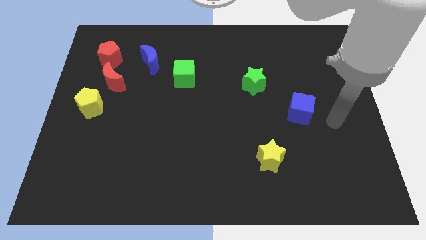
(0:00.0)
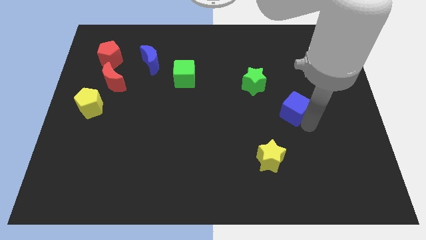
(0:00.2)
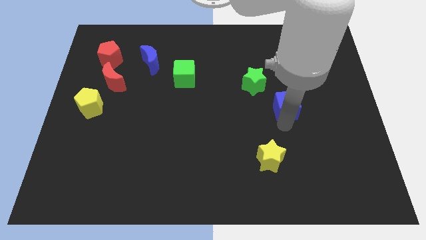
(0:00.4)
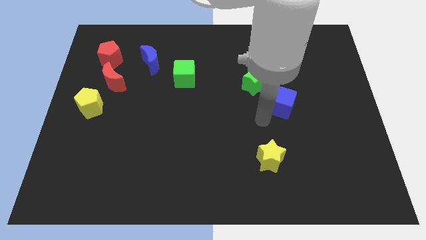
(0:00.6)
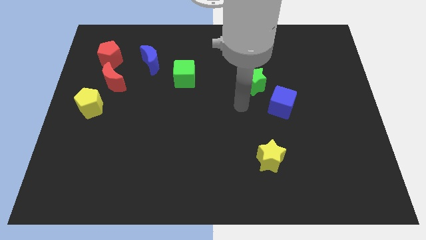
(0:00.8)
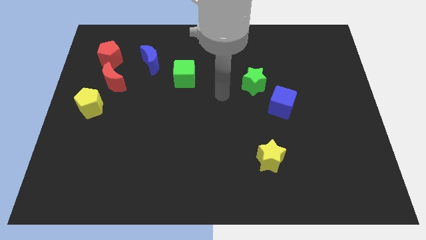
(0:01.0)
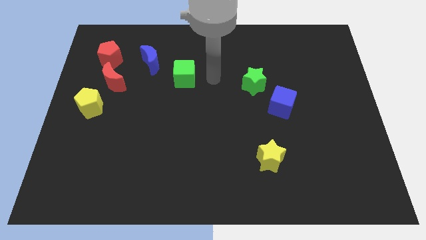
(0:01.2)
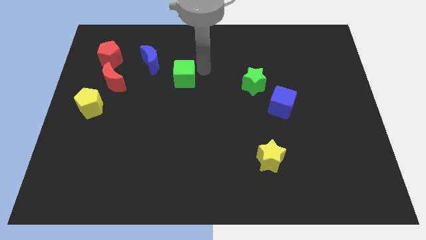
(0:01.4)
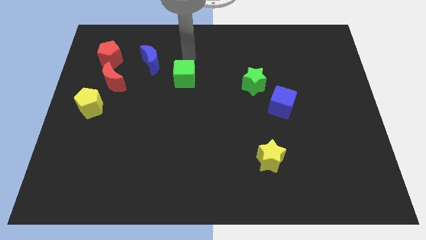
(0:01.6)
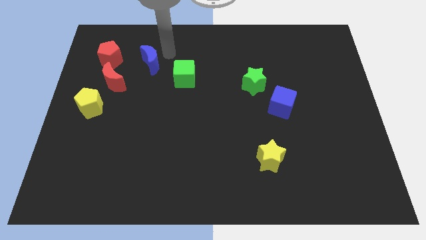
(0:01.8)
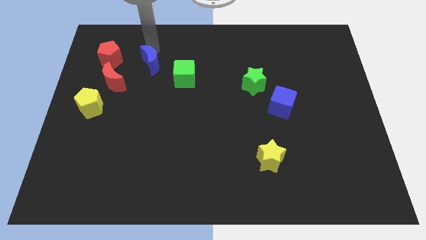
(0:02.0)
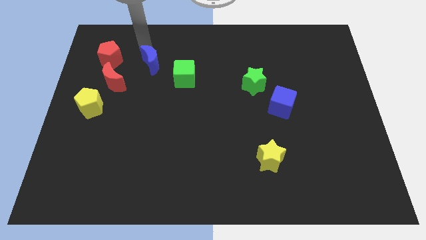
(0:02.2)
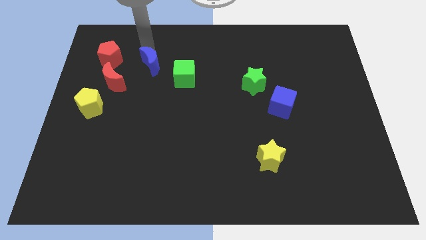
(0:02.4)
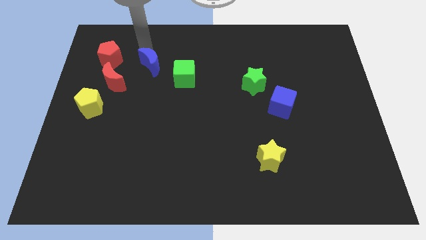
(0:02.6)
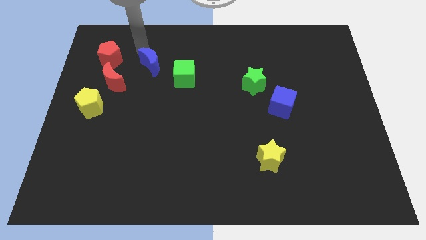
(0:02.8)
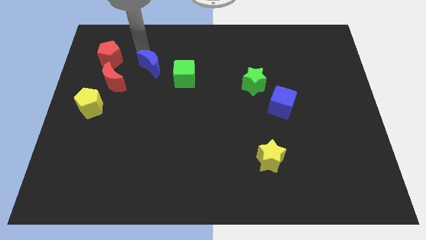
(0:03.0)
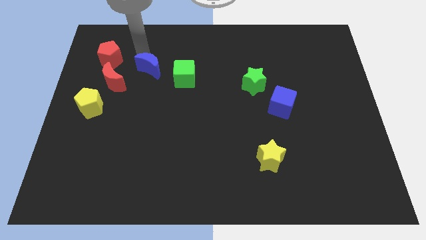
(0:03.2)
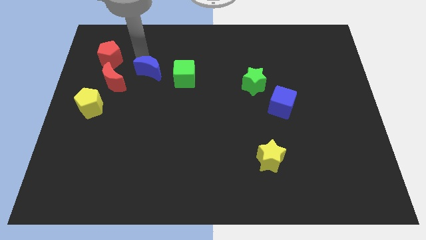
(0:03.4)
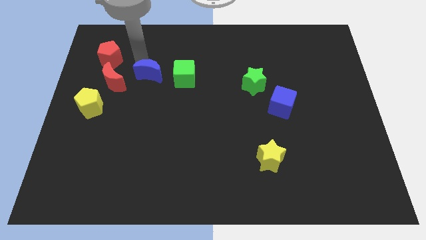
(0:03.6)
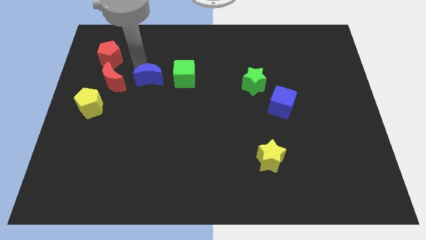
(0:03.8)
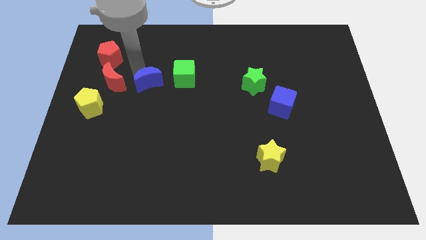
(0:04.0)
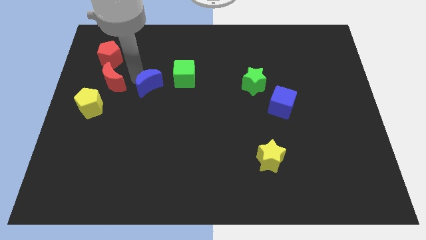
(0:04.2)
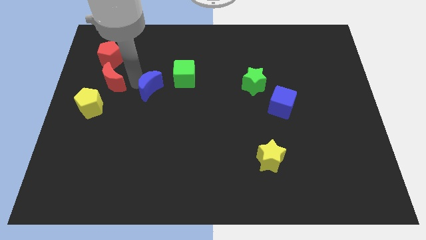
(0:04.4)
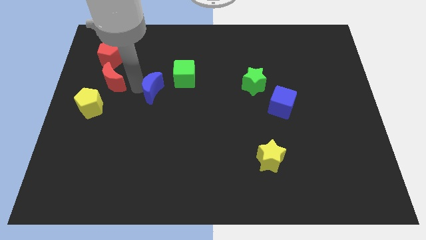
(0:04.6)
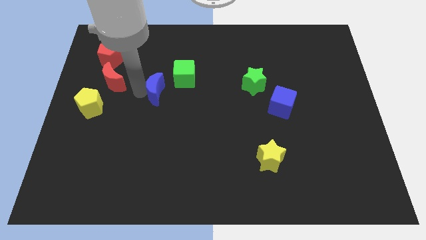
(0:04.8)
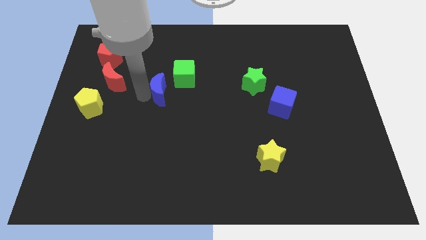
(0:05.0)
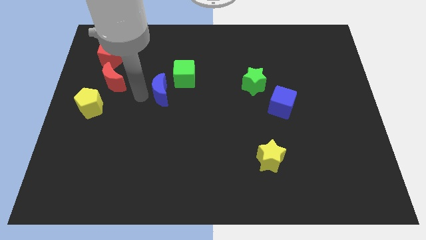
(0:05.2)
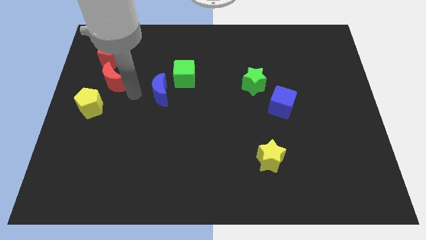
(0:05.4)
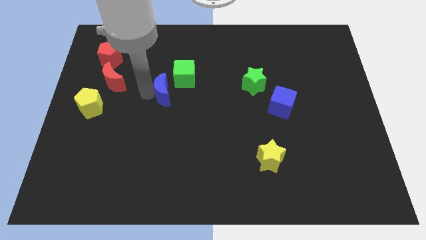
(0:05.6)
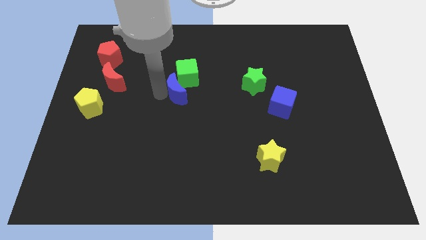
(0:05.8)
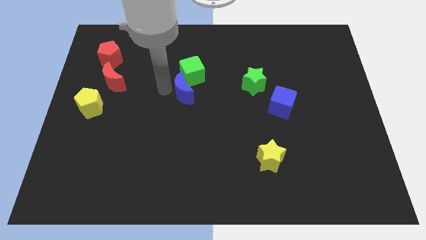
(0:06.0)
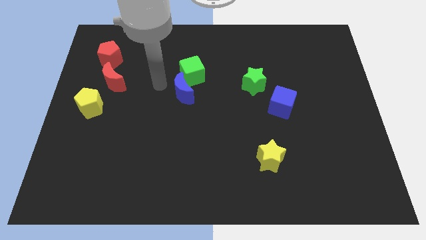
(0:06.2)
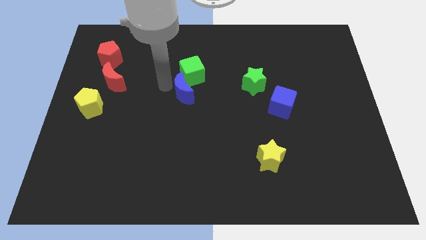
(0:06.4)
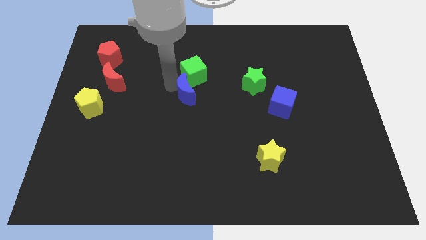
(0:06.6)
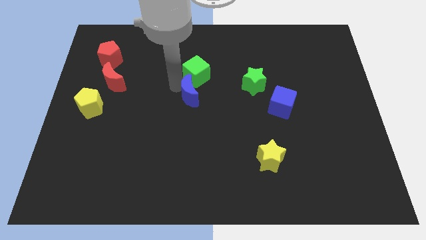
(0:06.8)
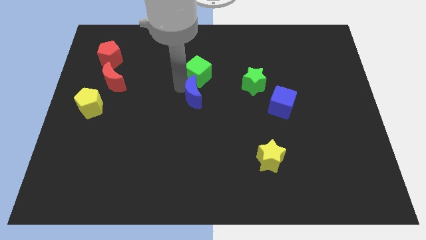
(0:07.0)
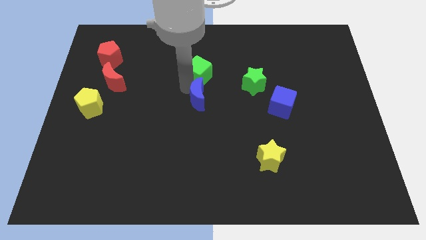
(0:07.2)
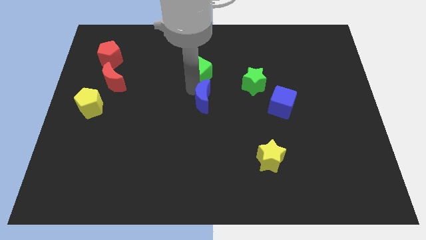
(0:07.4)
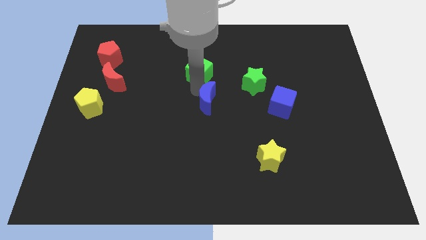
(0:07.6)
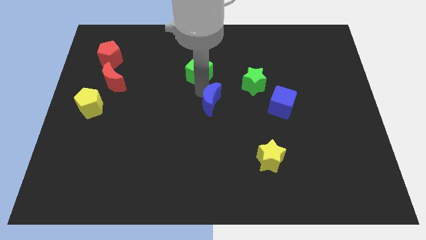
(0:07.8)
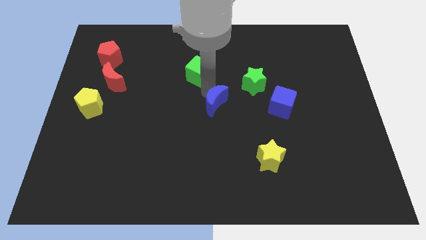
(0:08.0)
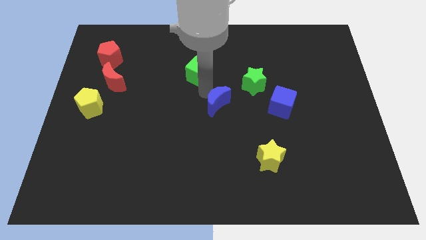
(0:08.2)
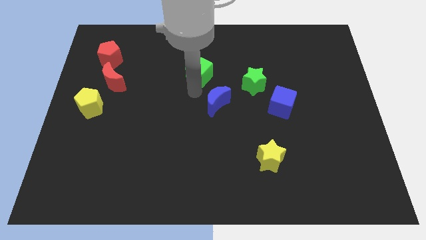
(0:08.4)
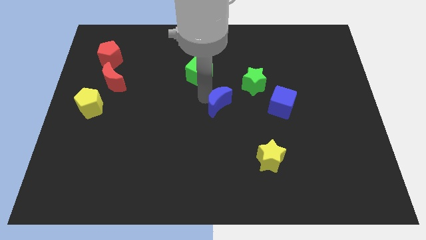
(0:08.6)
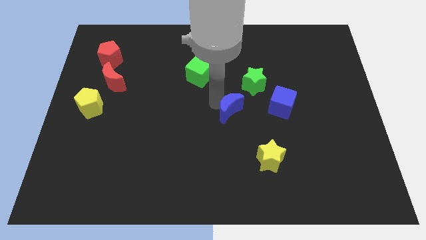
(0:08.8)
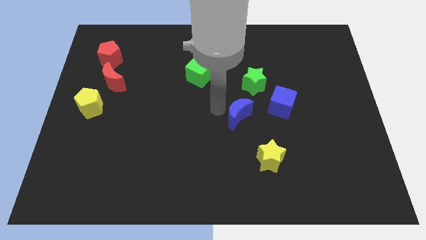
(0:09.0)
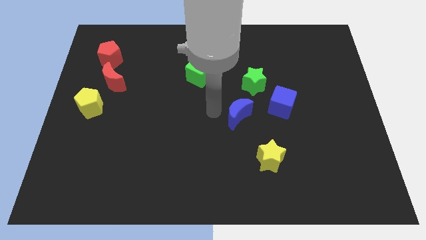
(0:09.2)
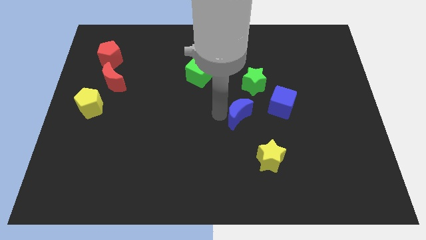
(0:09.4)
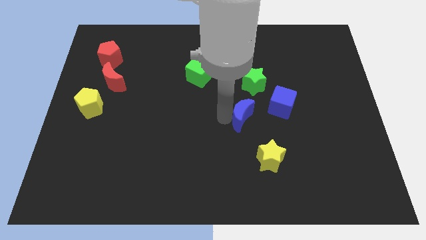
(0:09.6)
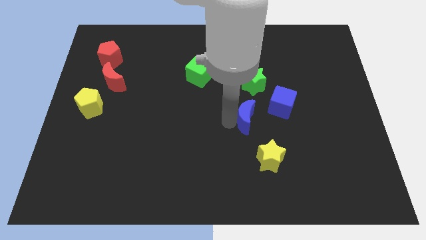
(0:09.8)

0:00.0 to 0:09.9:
move the blue moon to the top side of the yellow star

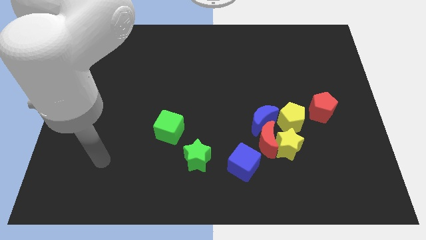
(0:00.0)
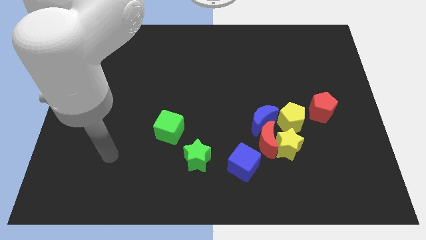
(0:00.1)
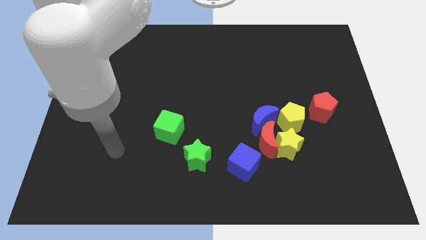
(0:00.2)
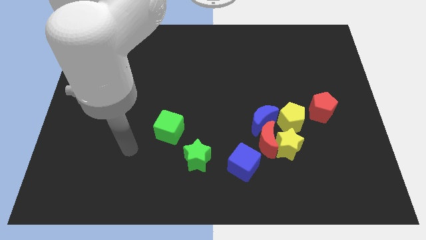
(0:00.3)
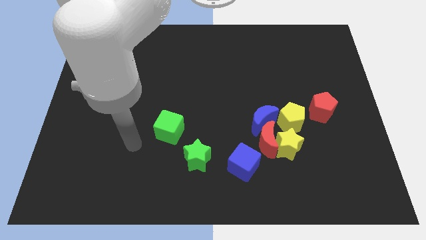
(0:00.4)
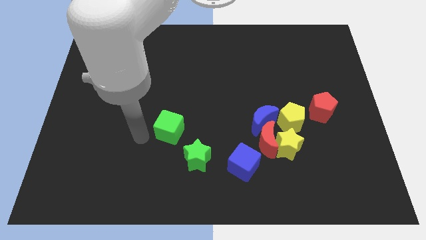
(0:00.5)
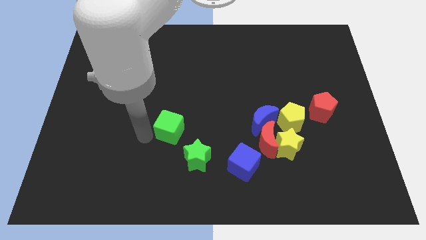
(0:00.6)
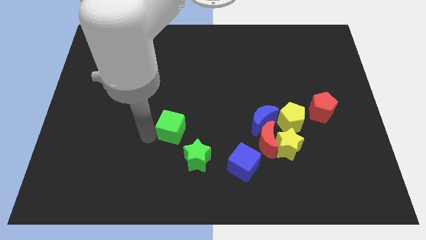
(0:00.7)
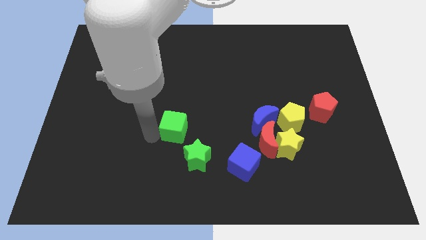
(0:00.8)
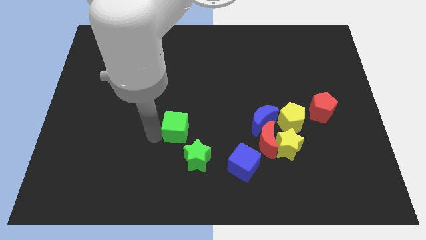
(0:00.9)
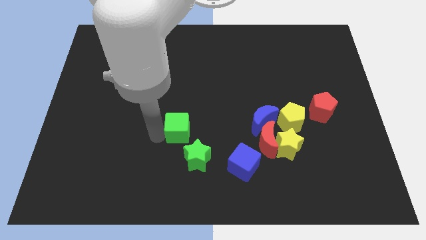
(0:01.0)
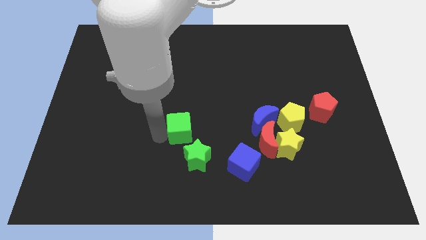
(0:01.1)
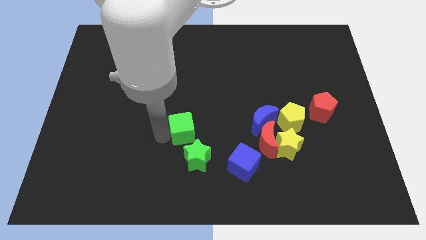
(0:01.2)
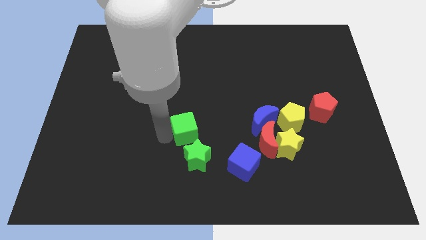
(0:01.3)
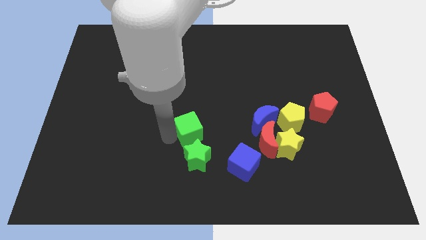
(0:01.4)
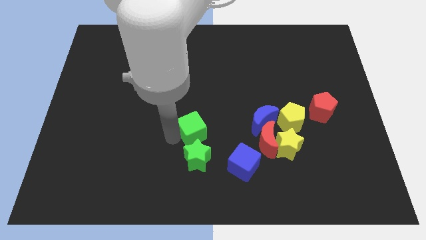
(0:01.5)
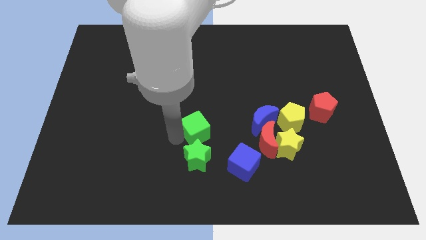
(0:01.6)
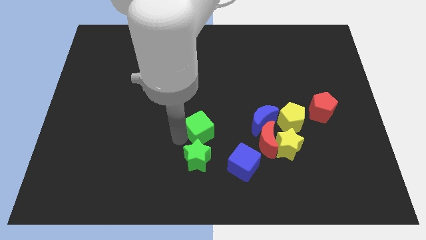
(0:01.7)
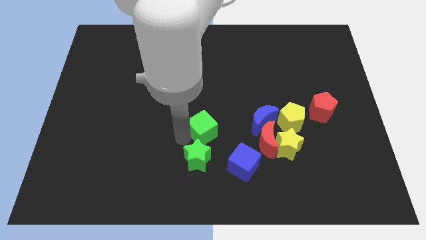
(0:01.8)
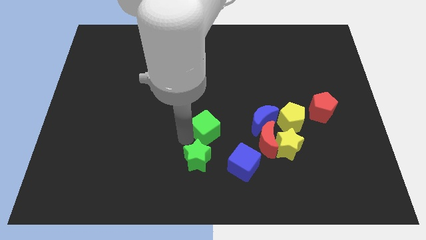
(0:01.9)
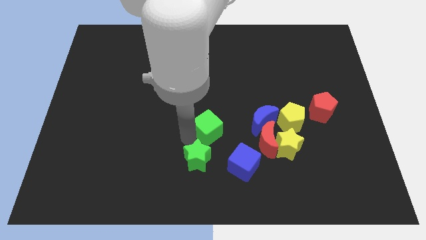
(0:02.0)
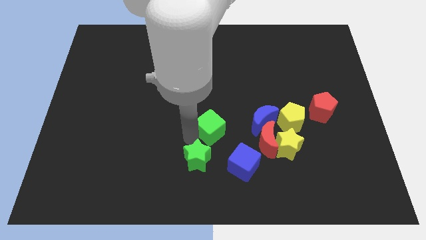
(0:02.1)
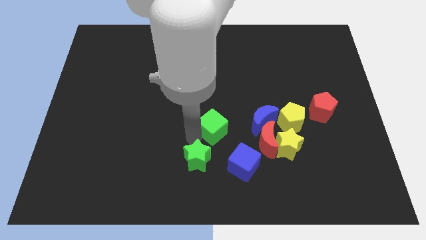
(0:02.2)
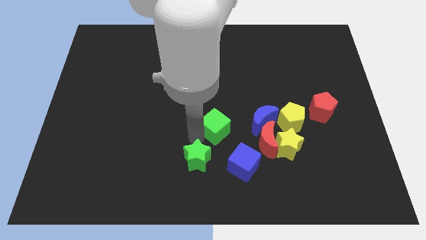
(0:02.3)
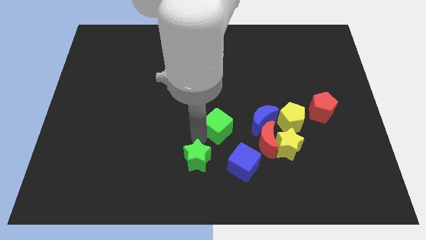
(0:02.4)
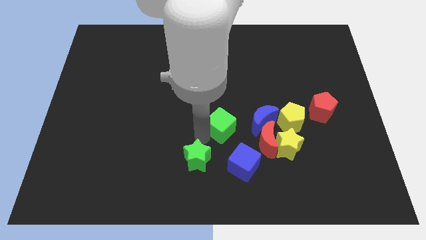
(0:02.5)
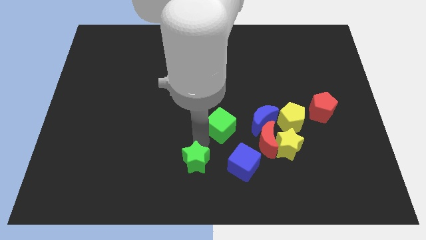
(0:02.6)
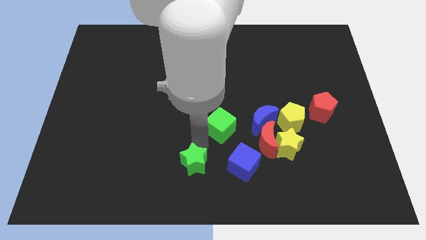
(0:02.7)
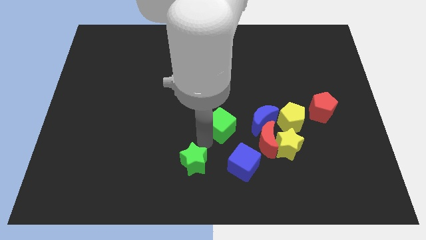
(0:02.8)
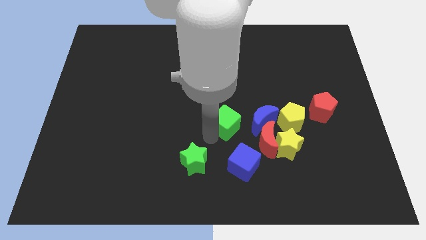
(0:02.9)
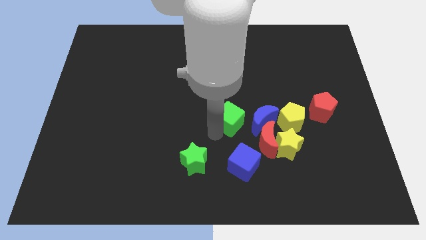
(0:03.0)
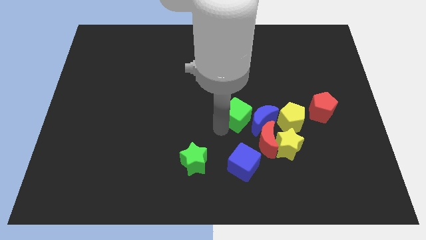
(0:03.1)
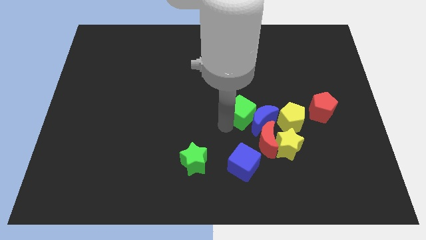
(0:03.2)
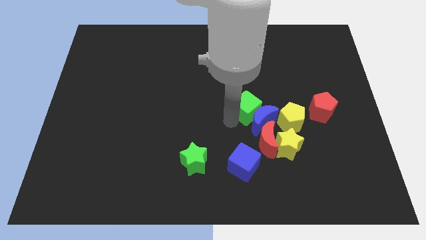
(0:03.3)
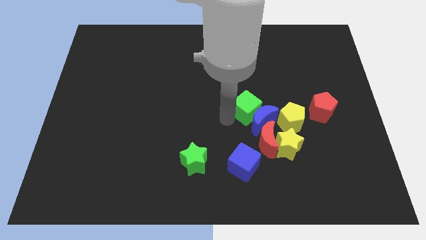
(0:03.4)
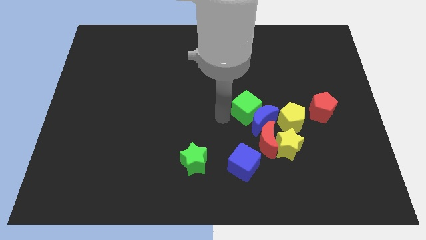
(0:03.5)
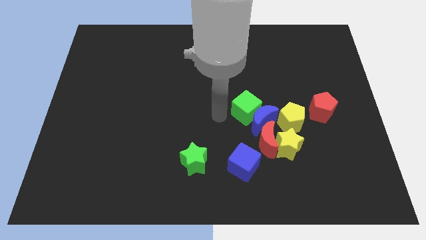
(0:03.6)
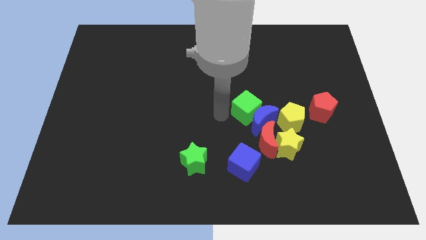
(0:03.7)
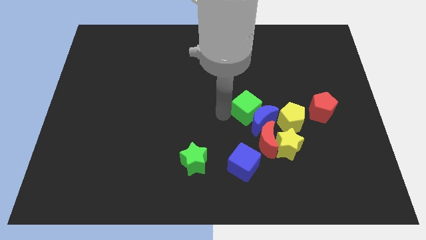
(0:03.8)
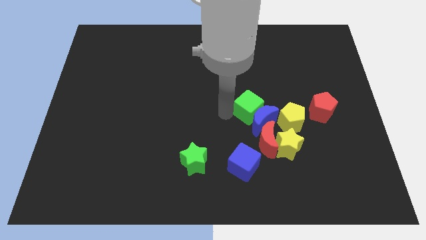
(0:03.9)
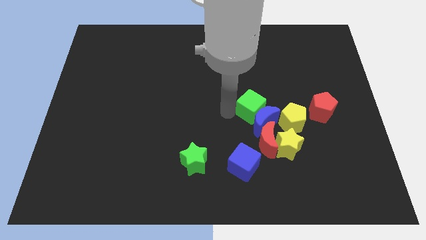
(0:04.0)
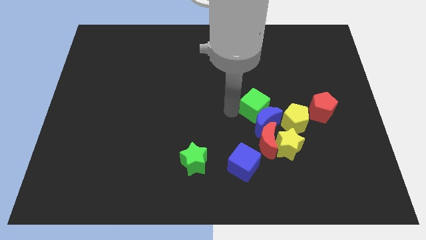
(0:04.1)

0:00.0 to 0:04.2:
move the green cube diagonally up and to the right of the blue moon
